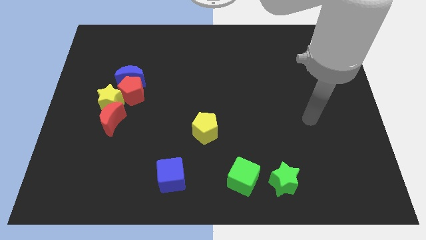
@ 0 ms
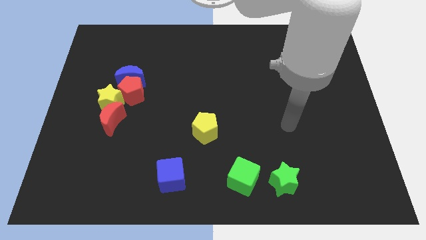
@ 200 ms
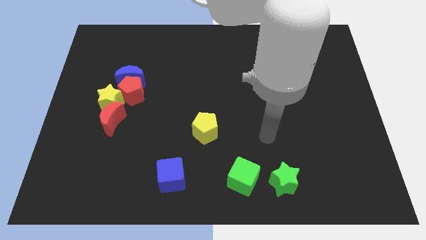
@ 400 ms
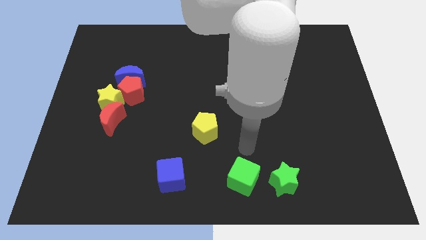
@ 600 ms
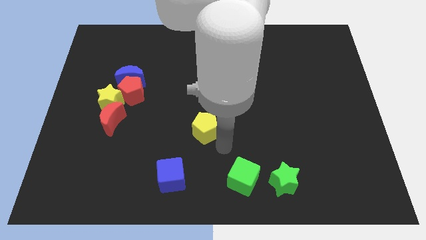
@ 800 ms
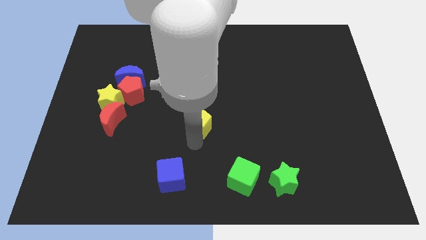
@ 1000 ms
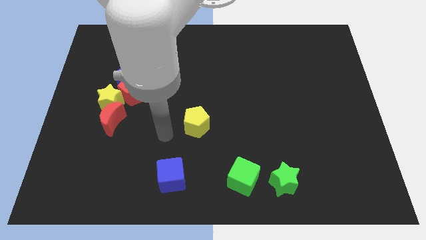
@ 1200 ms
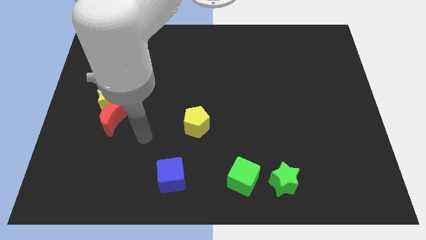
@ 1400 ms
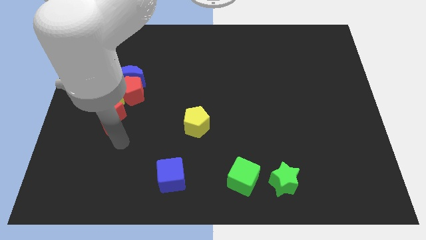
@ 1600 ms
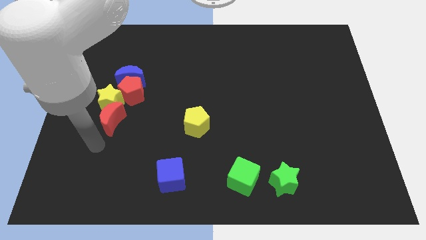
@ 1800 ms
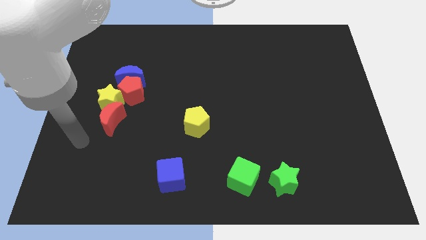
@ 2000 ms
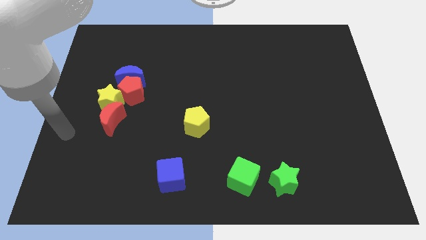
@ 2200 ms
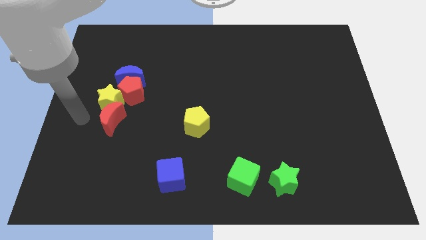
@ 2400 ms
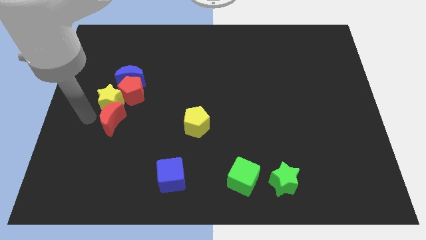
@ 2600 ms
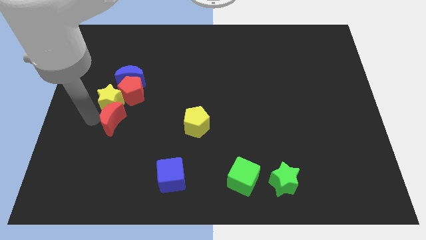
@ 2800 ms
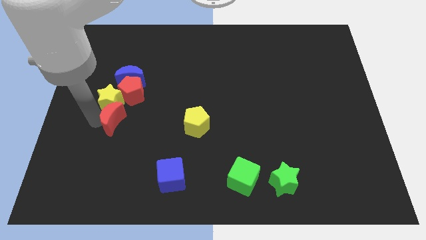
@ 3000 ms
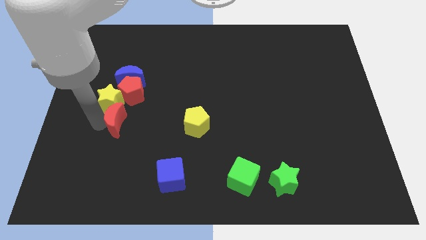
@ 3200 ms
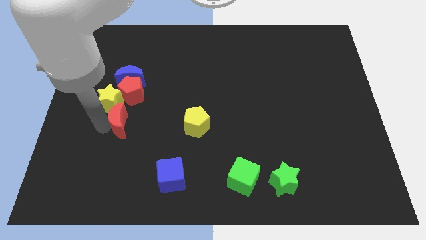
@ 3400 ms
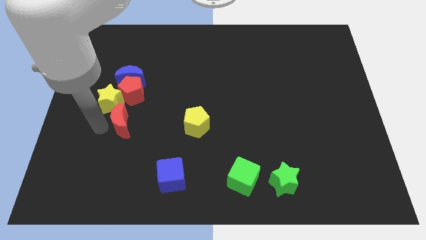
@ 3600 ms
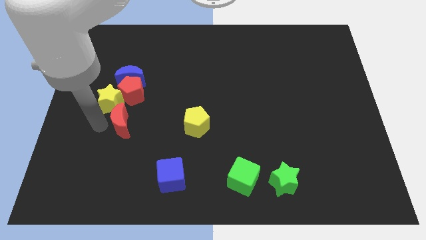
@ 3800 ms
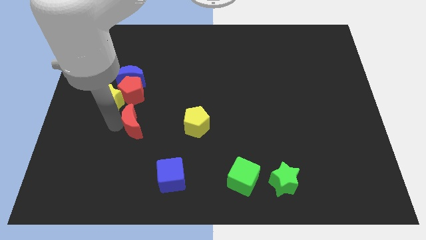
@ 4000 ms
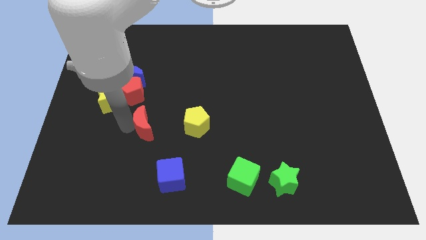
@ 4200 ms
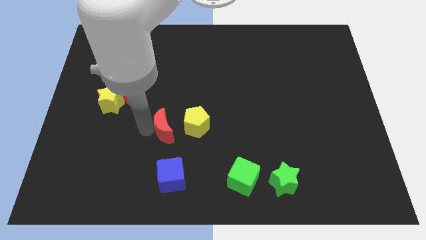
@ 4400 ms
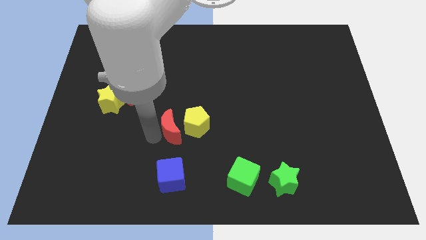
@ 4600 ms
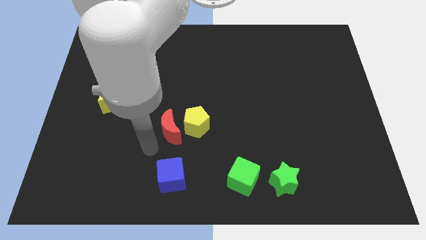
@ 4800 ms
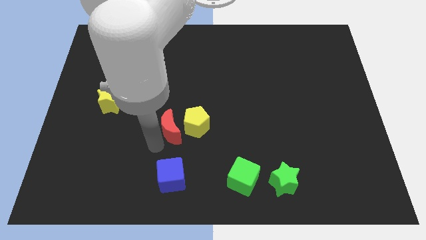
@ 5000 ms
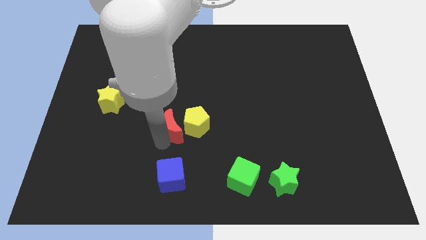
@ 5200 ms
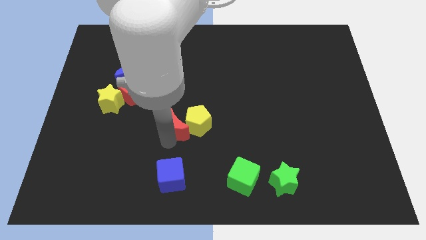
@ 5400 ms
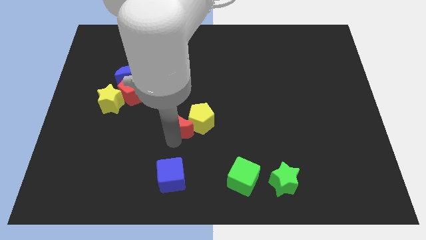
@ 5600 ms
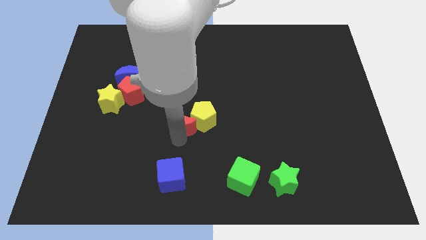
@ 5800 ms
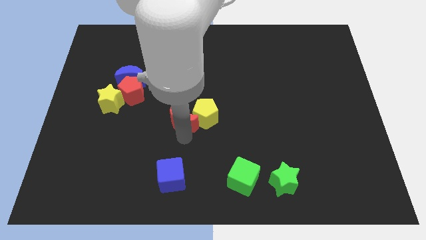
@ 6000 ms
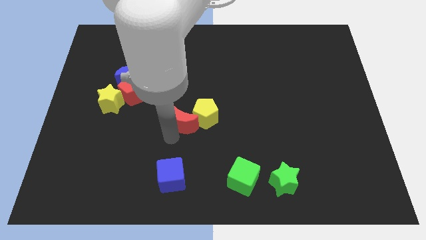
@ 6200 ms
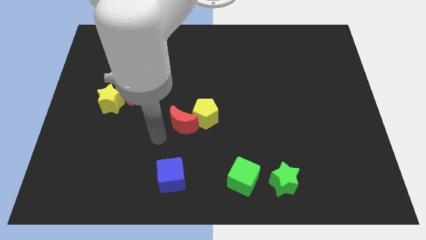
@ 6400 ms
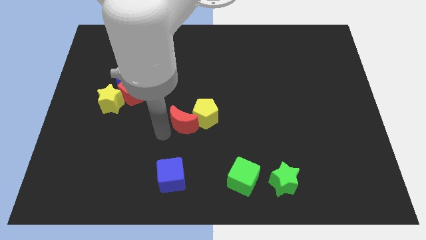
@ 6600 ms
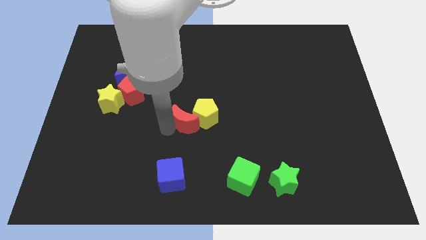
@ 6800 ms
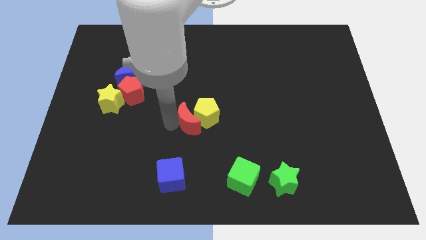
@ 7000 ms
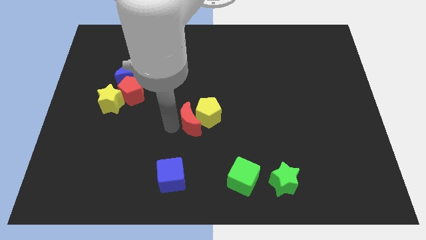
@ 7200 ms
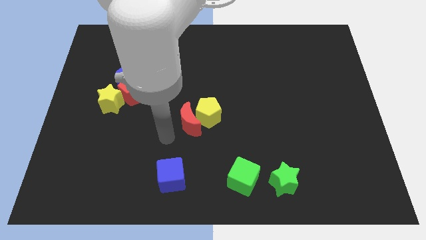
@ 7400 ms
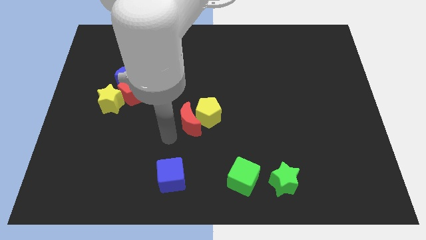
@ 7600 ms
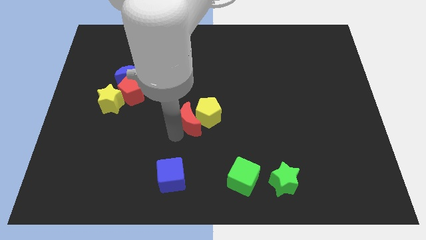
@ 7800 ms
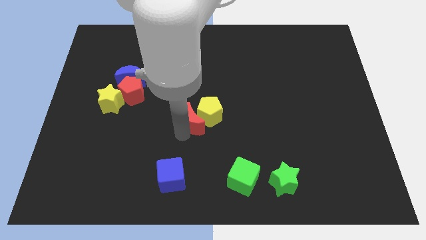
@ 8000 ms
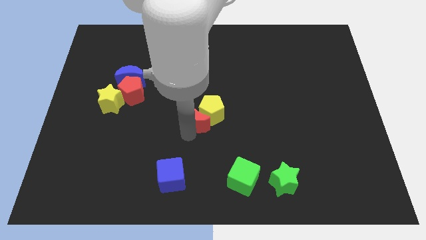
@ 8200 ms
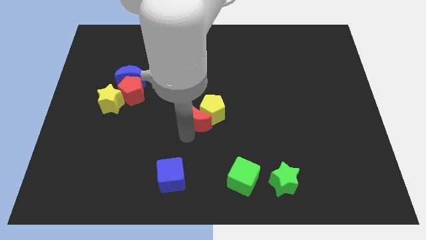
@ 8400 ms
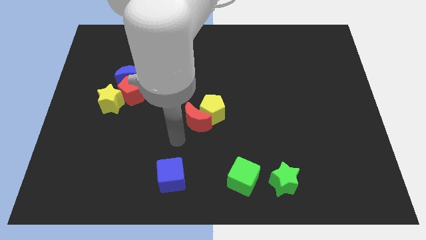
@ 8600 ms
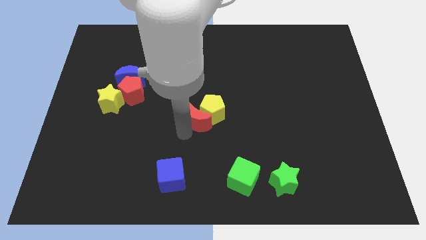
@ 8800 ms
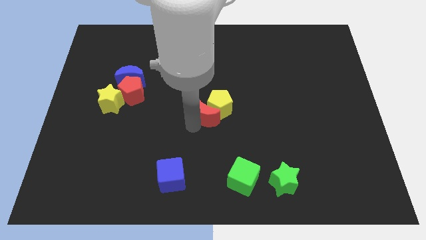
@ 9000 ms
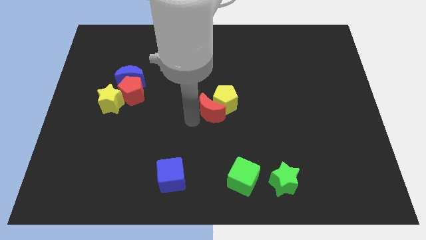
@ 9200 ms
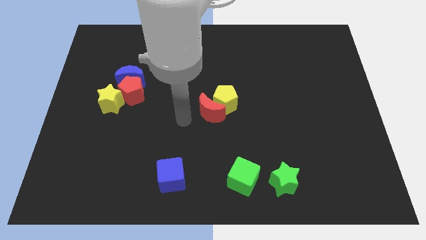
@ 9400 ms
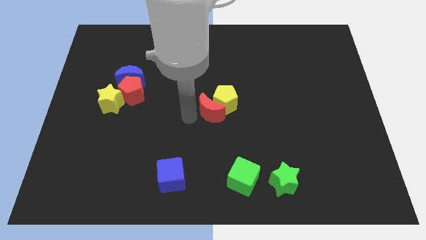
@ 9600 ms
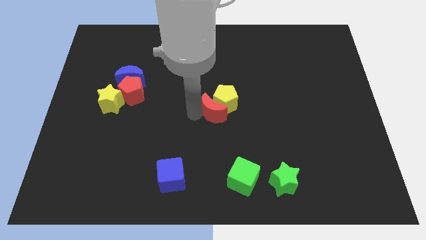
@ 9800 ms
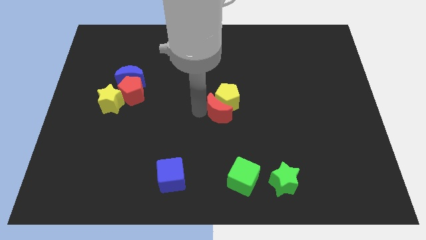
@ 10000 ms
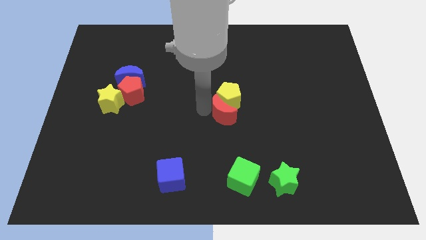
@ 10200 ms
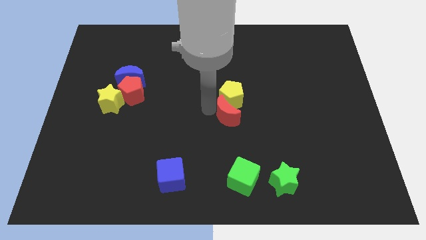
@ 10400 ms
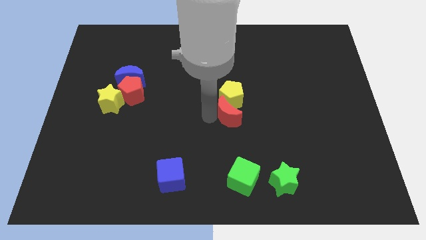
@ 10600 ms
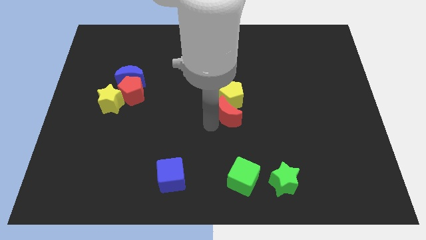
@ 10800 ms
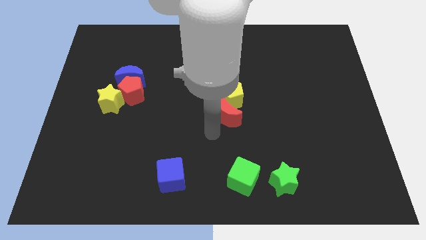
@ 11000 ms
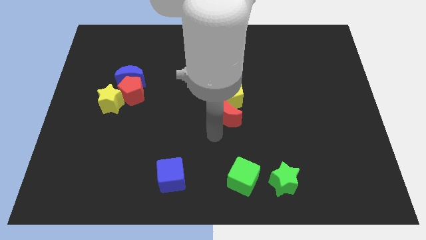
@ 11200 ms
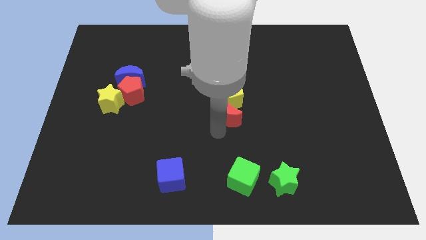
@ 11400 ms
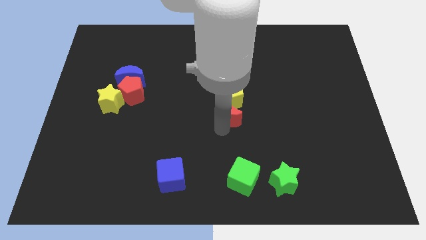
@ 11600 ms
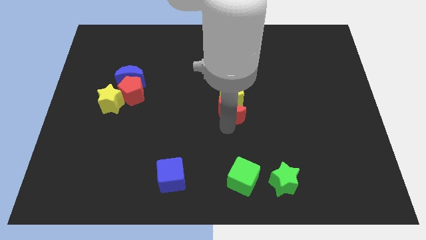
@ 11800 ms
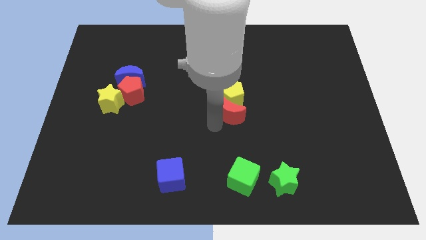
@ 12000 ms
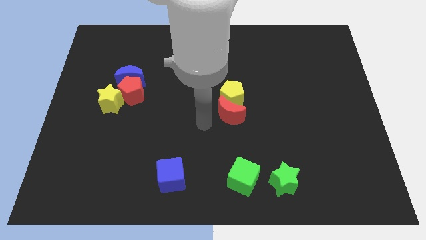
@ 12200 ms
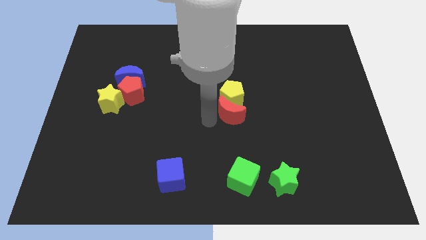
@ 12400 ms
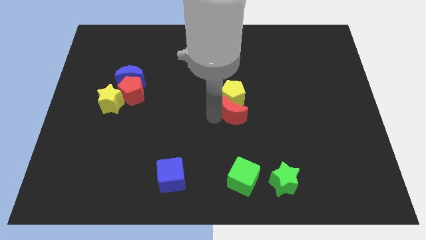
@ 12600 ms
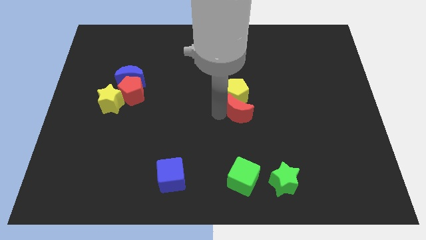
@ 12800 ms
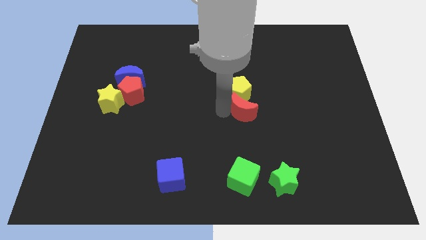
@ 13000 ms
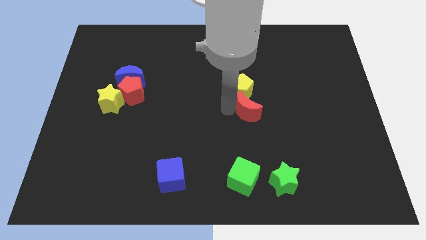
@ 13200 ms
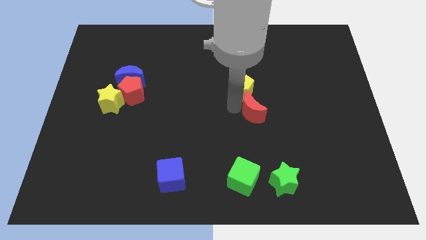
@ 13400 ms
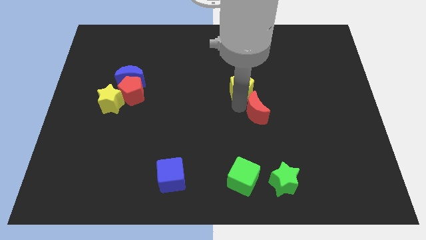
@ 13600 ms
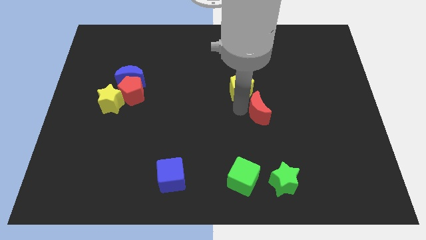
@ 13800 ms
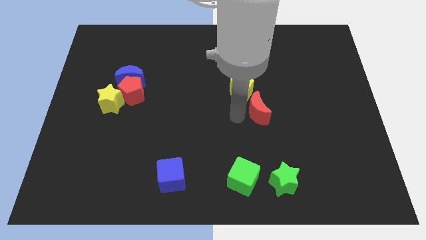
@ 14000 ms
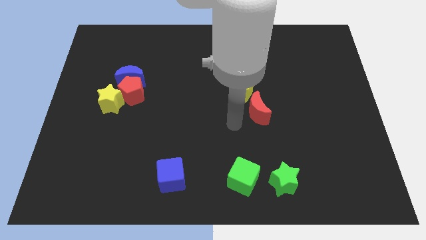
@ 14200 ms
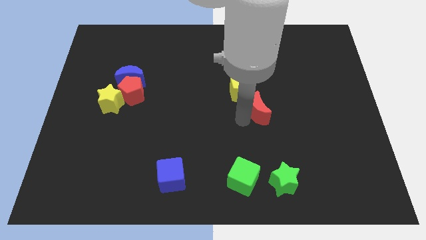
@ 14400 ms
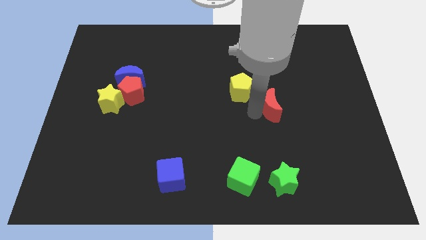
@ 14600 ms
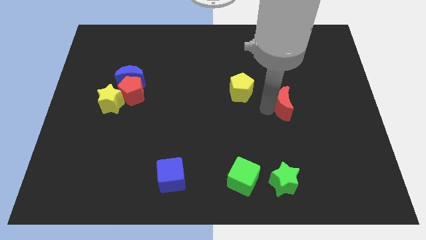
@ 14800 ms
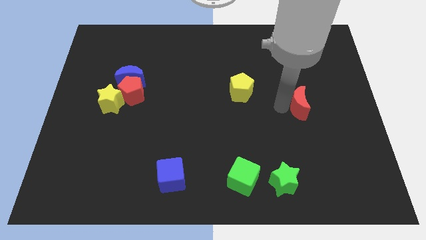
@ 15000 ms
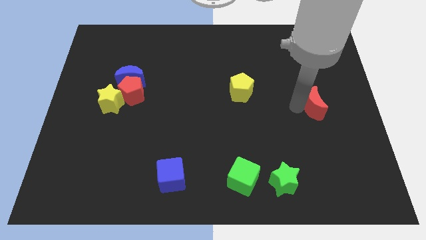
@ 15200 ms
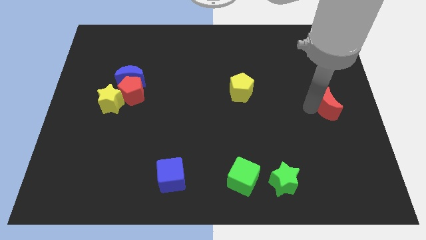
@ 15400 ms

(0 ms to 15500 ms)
put the red moon to the center right
